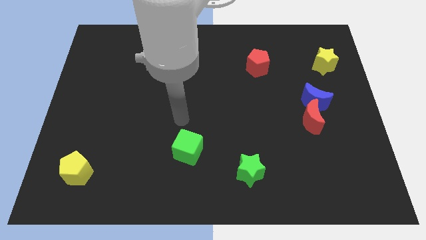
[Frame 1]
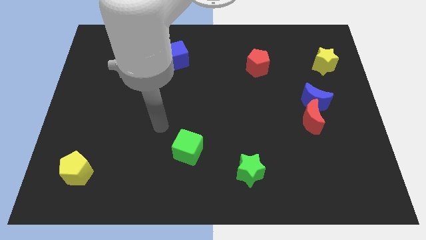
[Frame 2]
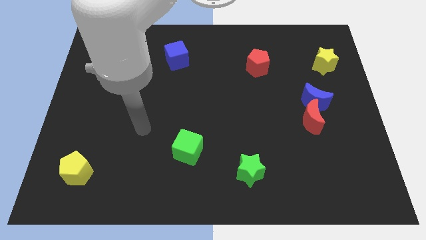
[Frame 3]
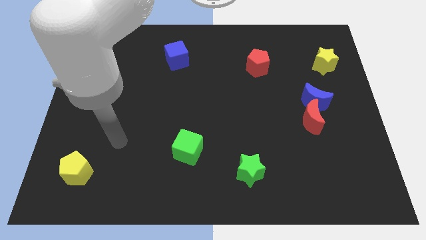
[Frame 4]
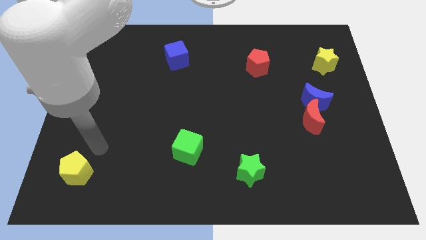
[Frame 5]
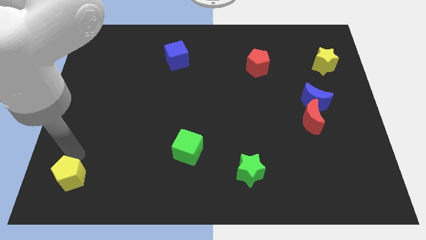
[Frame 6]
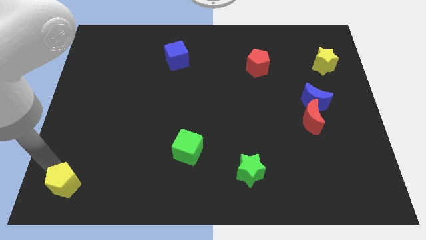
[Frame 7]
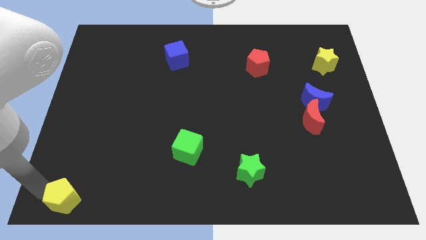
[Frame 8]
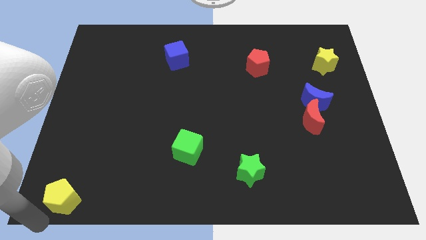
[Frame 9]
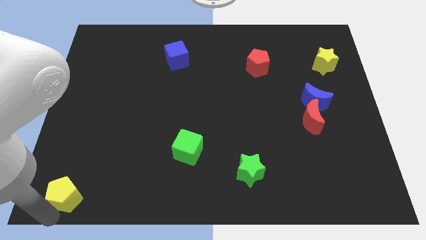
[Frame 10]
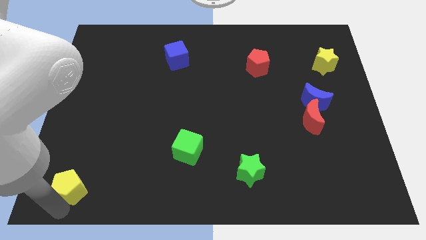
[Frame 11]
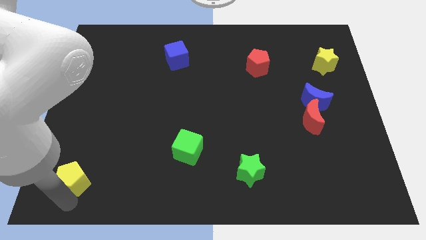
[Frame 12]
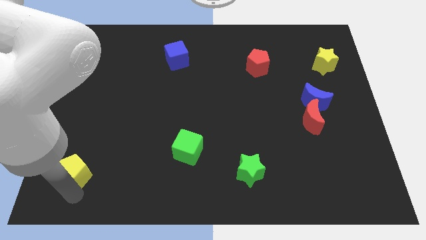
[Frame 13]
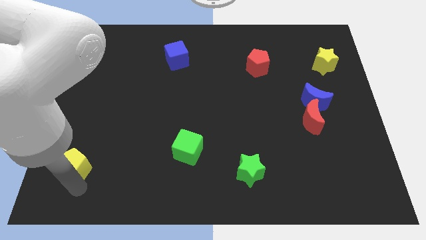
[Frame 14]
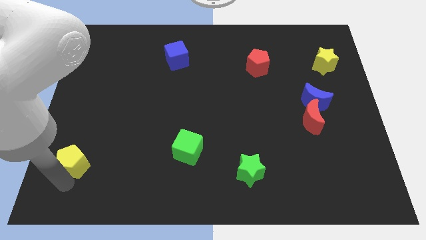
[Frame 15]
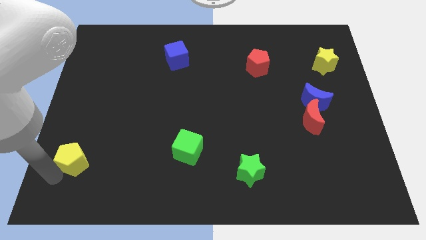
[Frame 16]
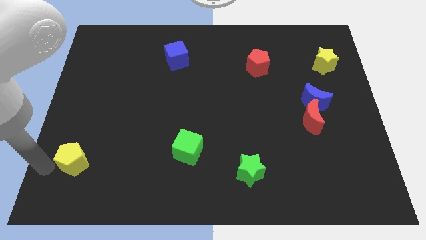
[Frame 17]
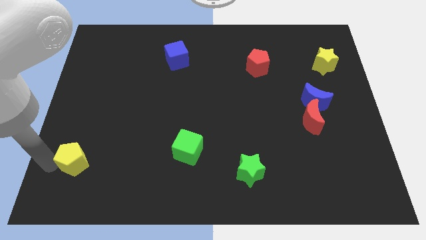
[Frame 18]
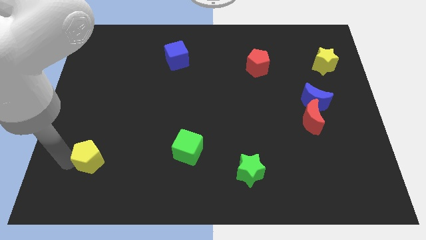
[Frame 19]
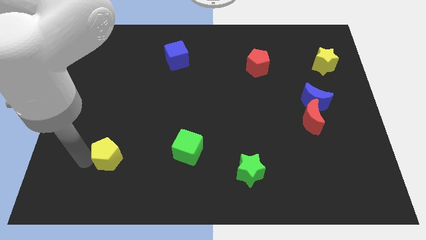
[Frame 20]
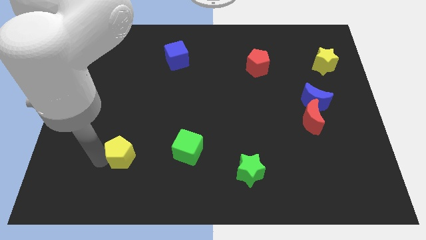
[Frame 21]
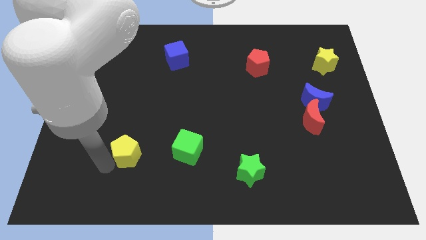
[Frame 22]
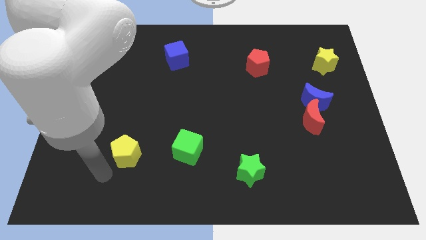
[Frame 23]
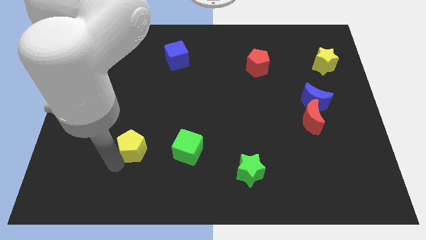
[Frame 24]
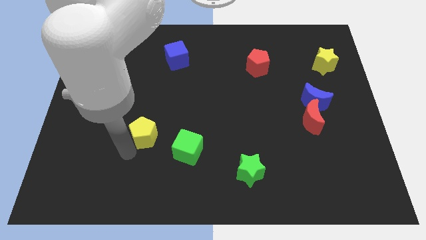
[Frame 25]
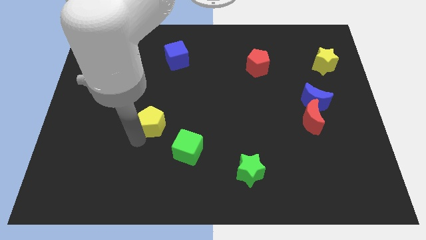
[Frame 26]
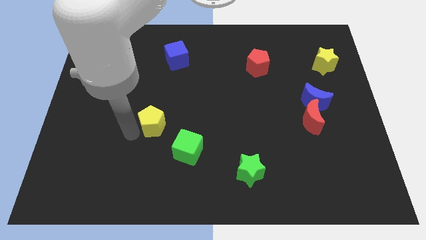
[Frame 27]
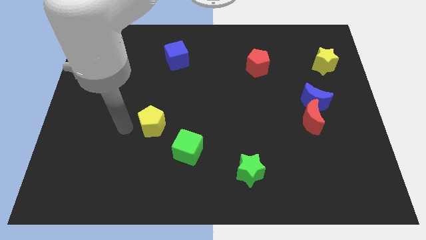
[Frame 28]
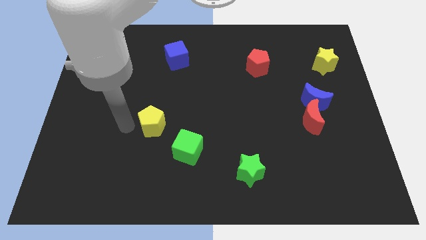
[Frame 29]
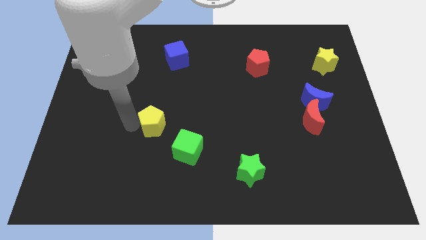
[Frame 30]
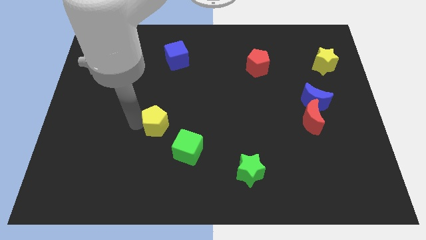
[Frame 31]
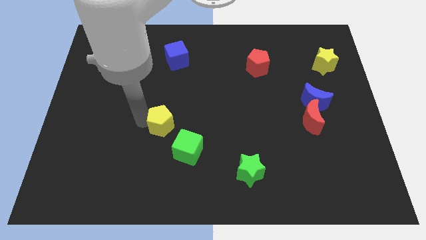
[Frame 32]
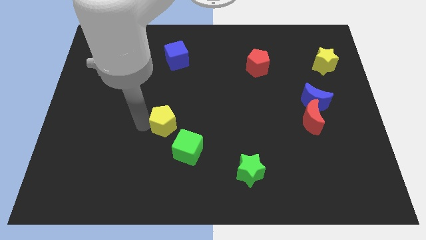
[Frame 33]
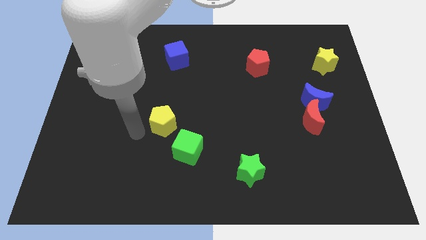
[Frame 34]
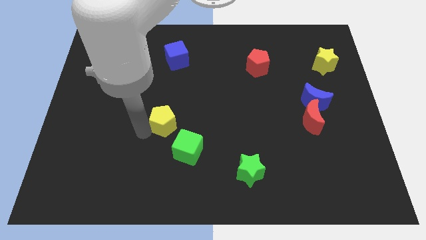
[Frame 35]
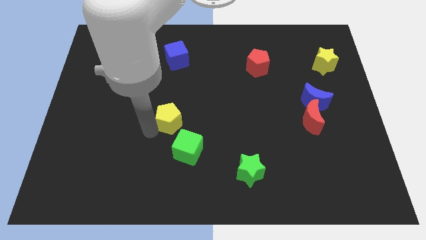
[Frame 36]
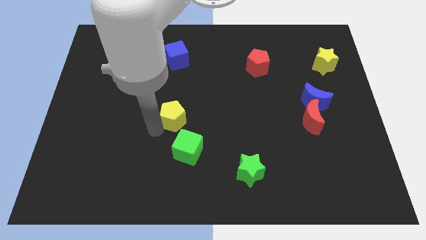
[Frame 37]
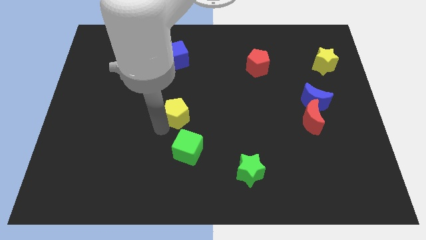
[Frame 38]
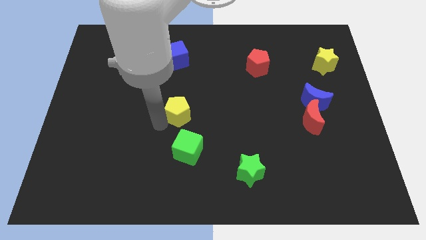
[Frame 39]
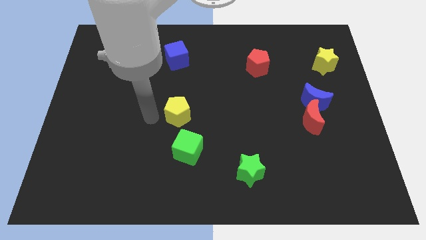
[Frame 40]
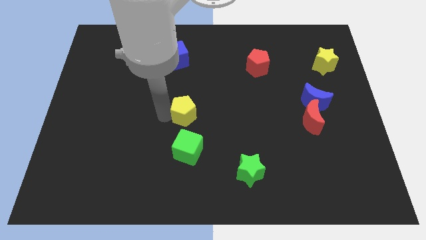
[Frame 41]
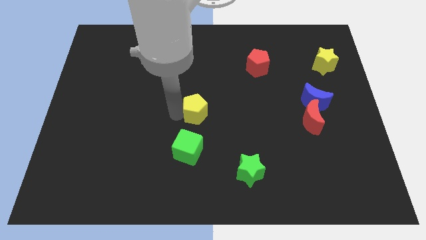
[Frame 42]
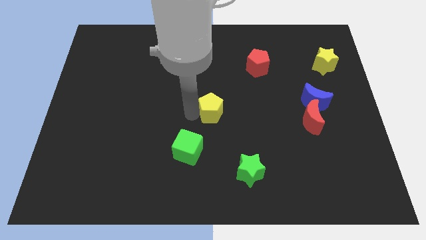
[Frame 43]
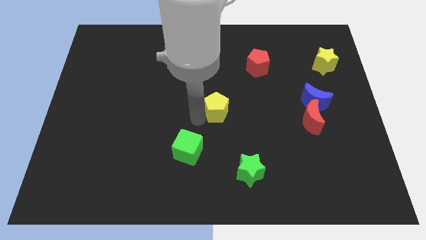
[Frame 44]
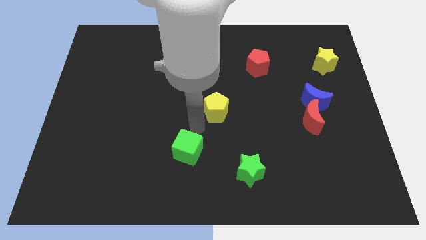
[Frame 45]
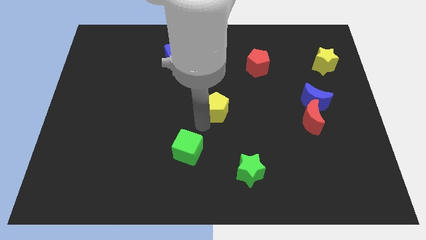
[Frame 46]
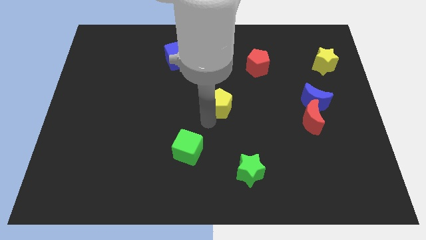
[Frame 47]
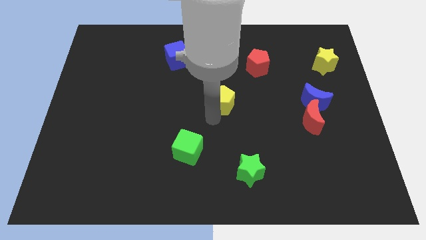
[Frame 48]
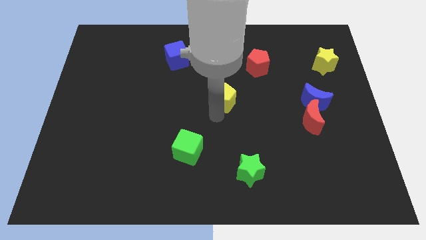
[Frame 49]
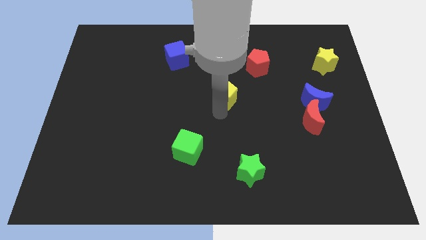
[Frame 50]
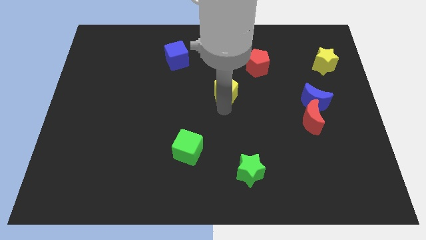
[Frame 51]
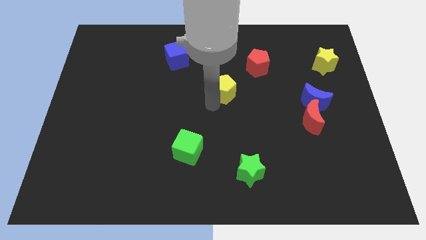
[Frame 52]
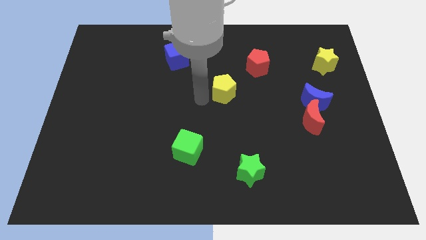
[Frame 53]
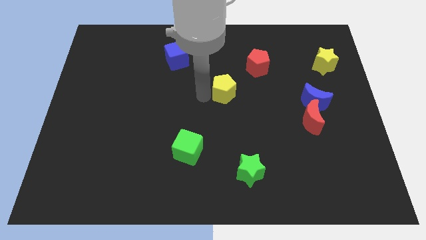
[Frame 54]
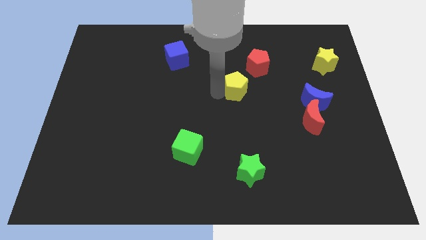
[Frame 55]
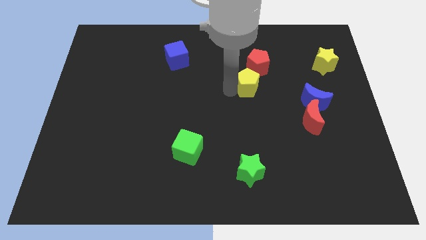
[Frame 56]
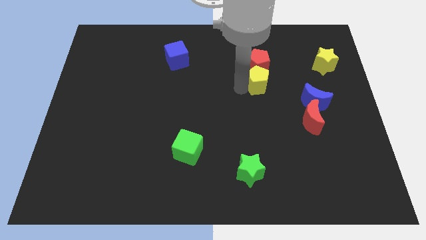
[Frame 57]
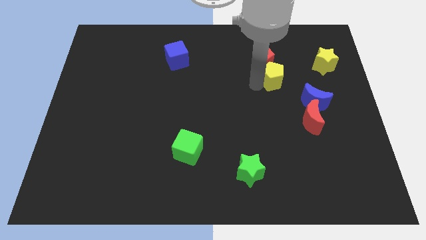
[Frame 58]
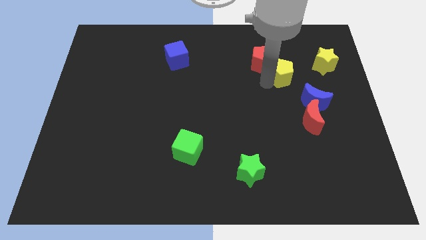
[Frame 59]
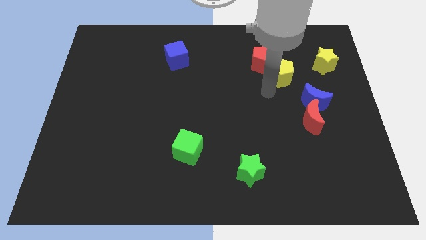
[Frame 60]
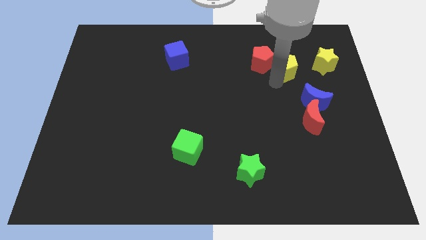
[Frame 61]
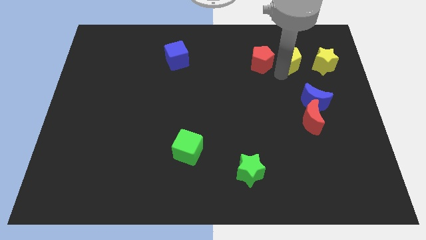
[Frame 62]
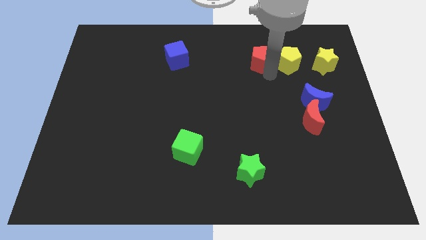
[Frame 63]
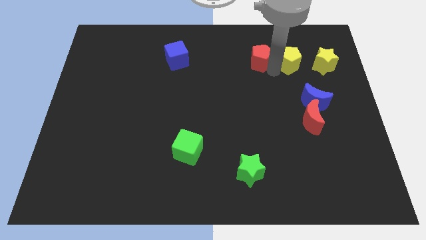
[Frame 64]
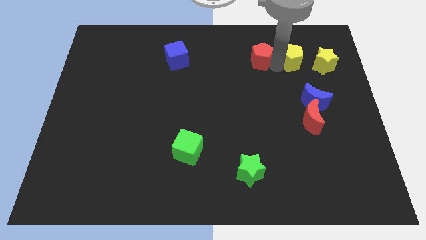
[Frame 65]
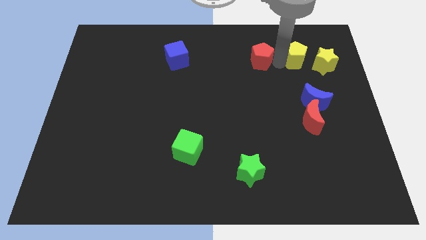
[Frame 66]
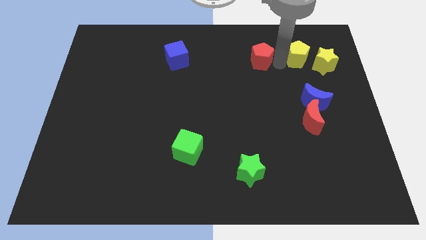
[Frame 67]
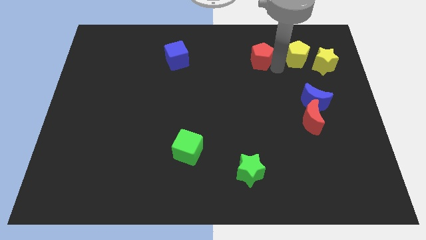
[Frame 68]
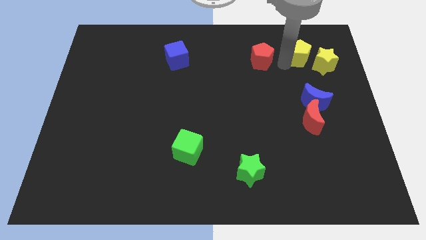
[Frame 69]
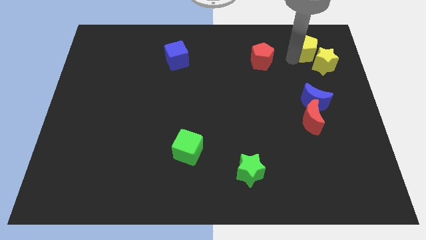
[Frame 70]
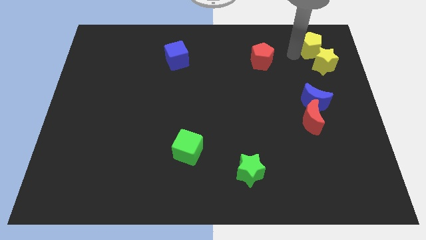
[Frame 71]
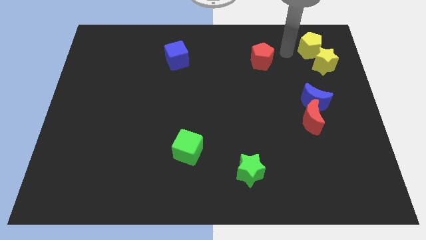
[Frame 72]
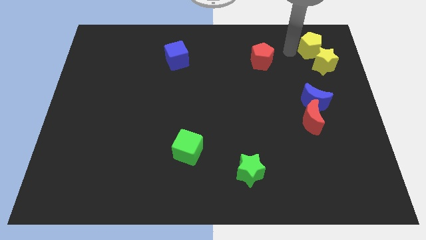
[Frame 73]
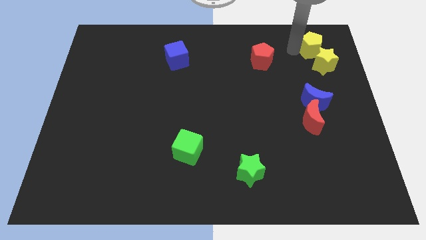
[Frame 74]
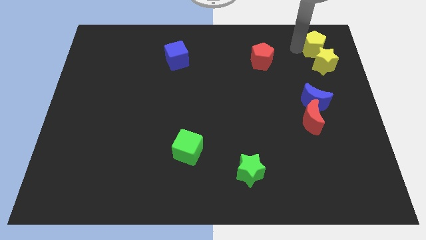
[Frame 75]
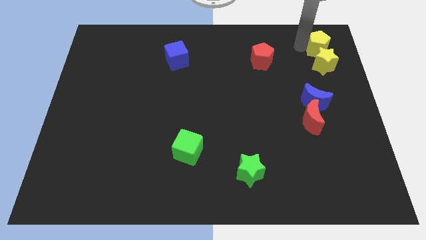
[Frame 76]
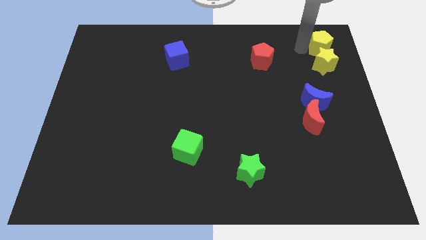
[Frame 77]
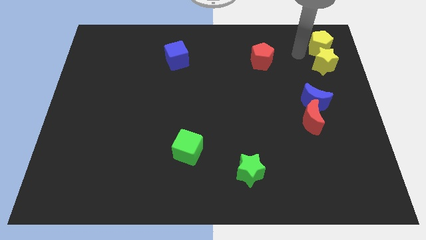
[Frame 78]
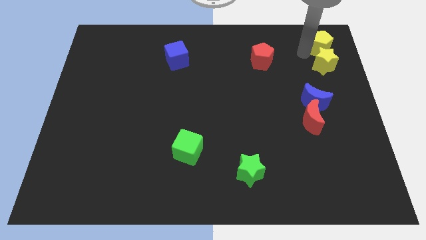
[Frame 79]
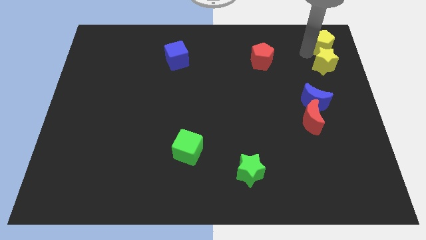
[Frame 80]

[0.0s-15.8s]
put the yellow pentagon to the top right corner
